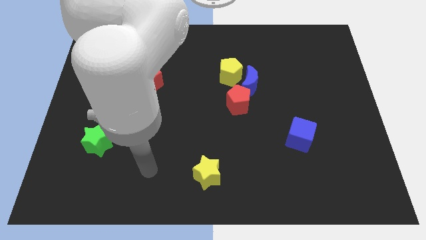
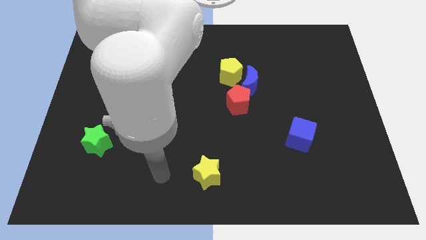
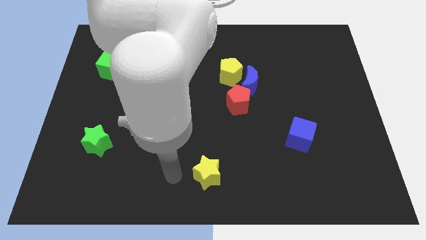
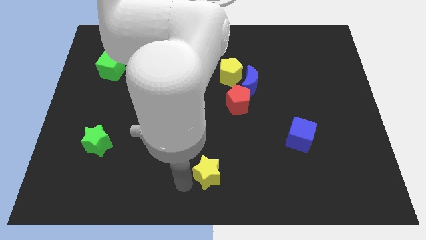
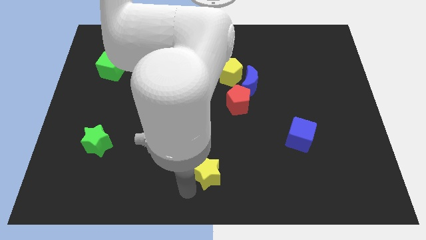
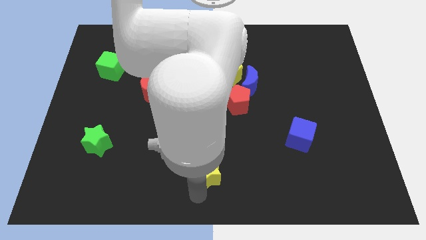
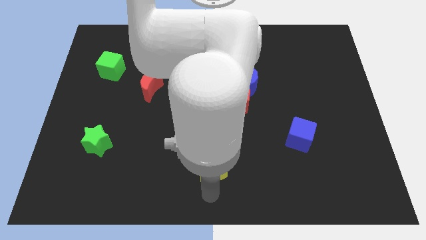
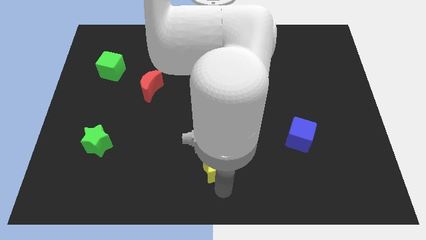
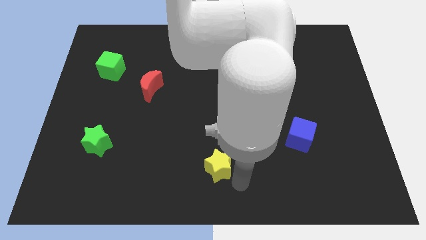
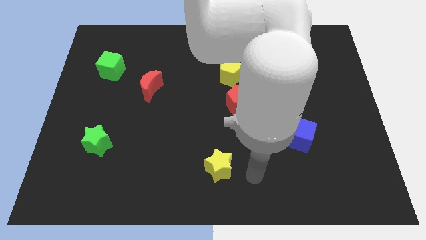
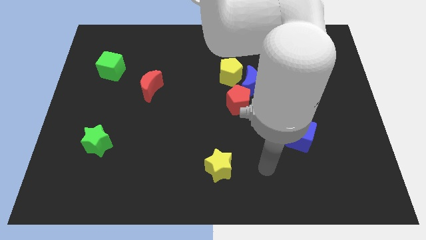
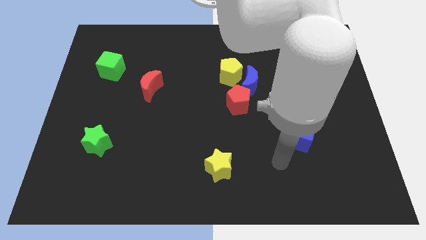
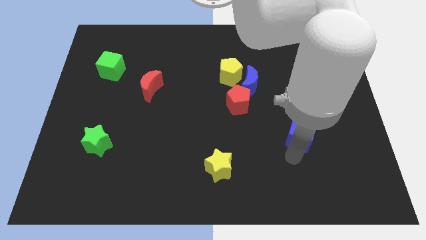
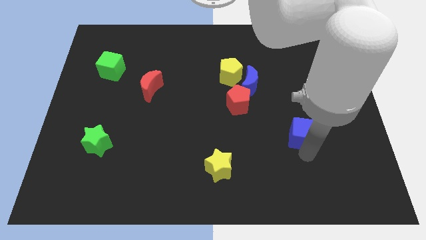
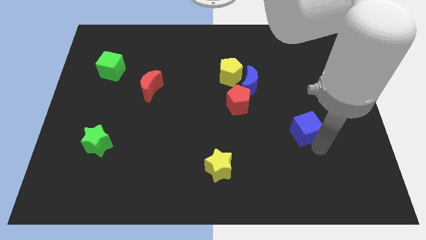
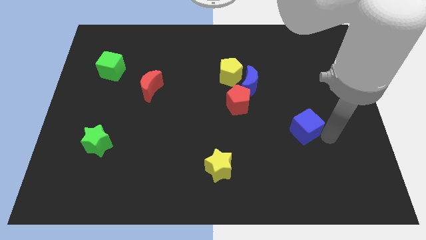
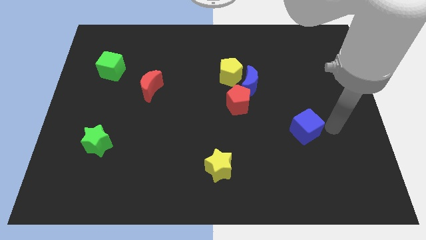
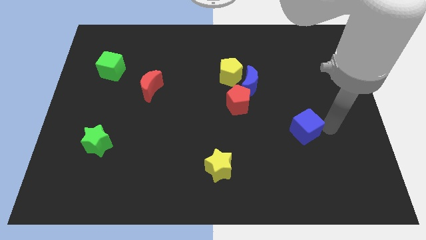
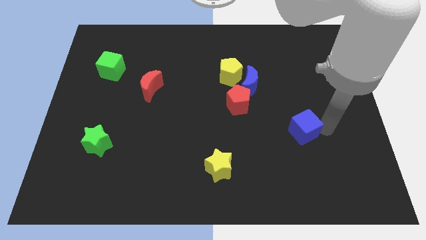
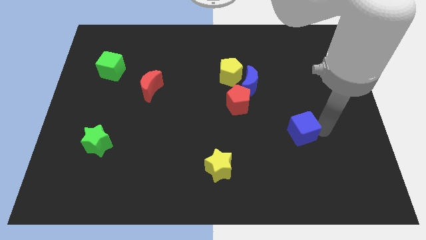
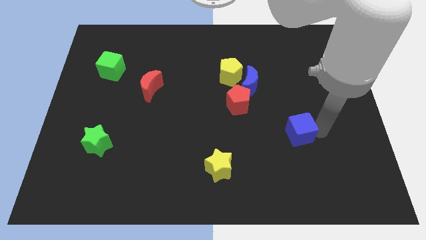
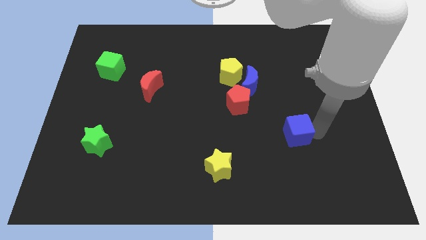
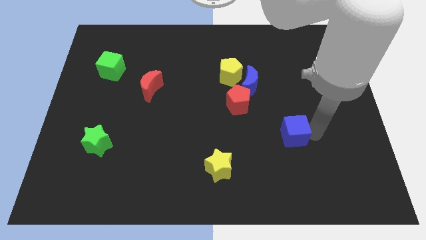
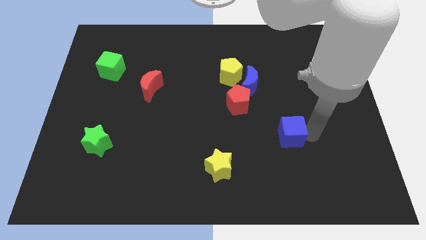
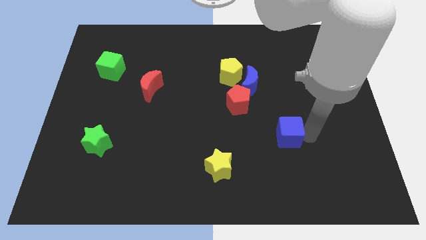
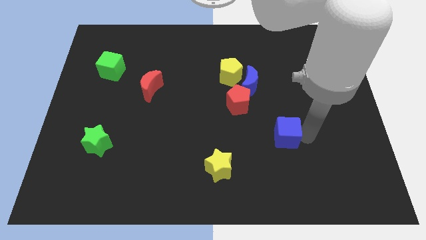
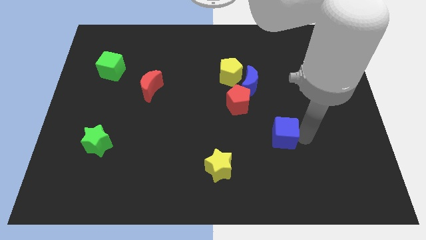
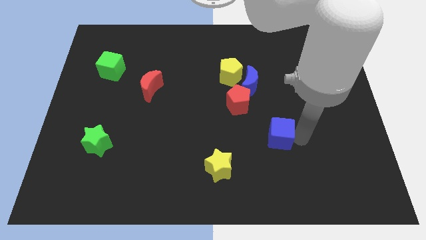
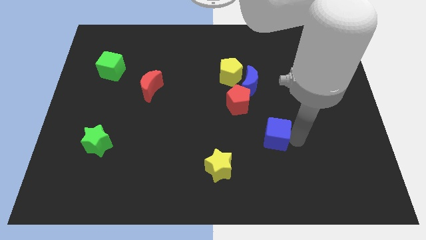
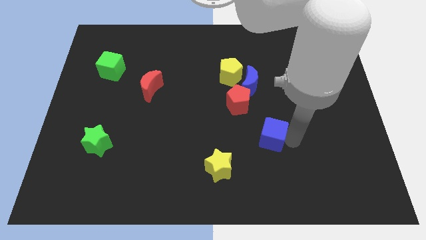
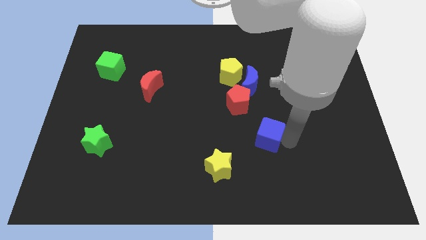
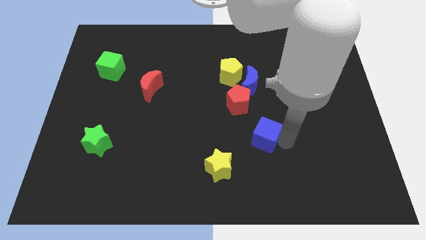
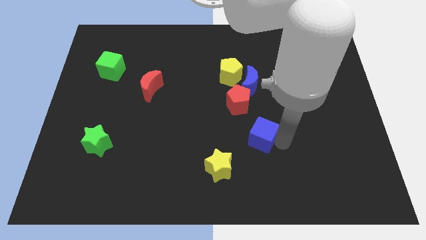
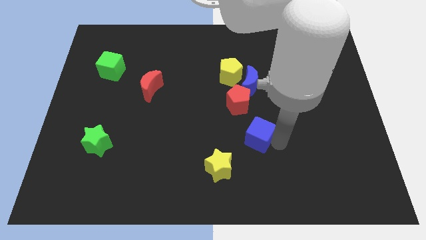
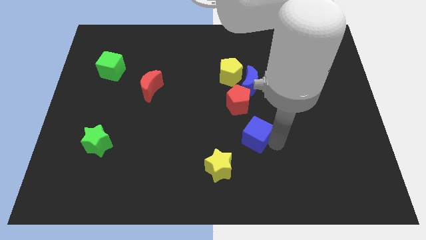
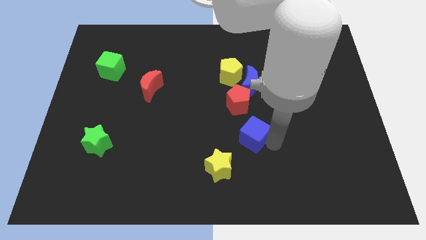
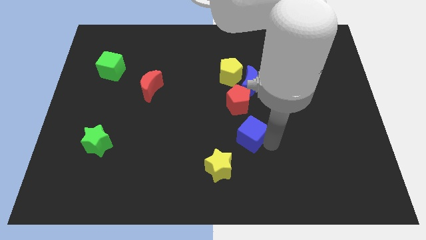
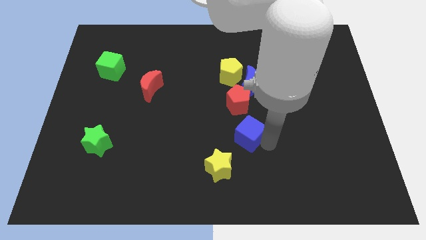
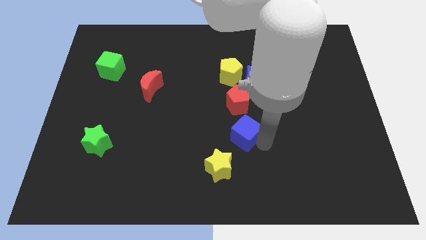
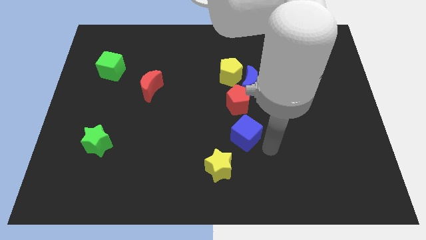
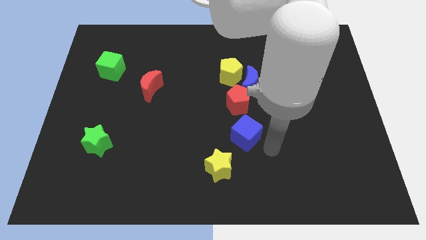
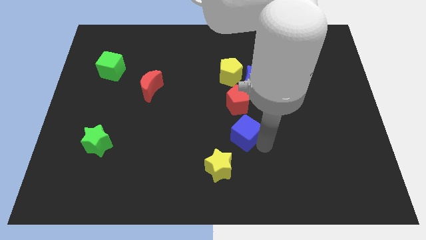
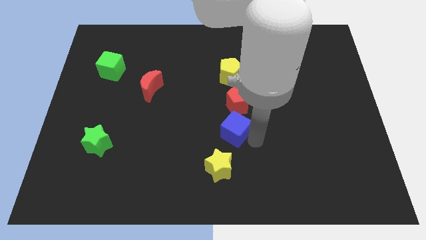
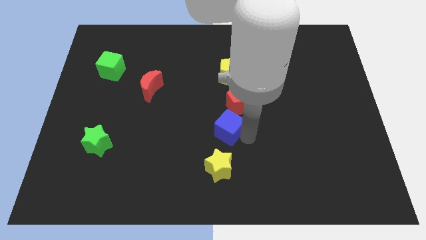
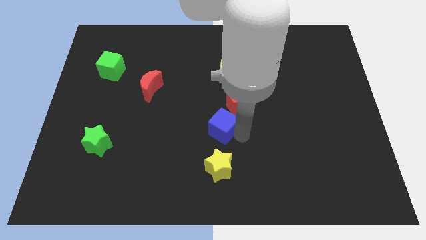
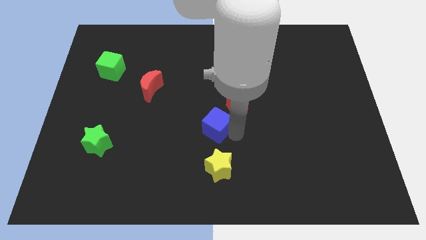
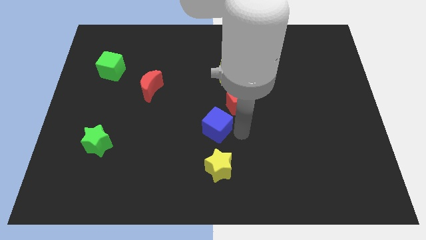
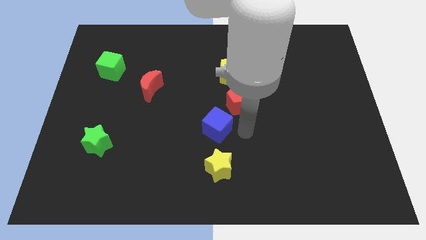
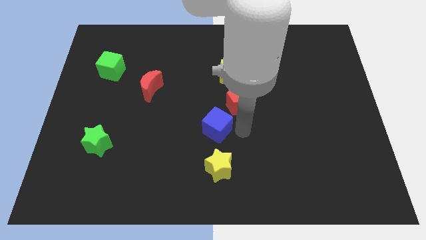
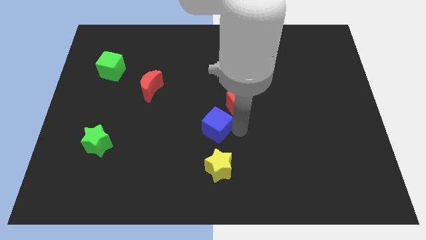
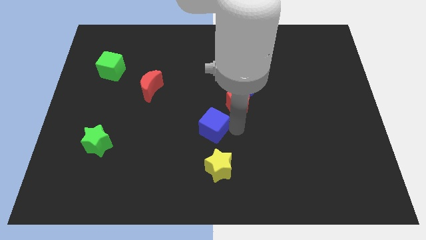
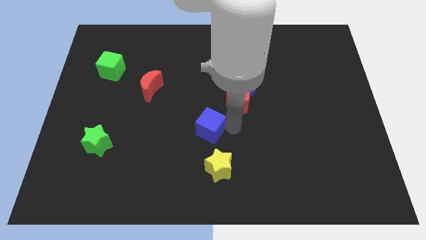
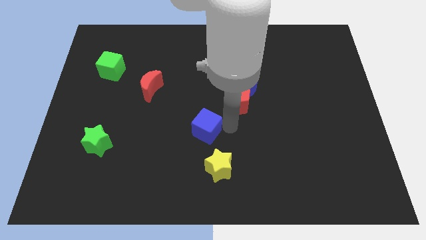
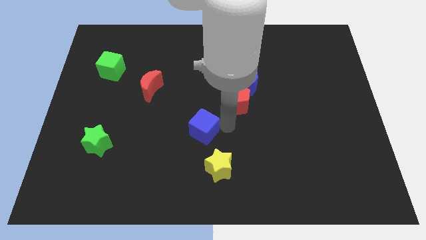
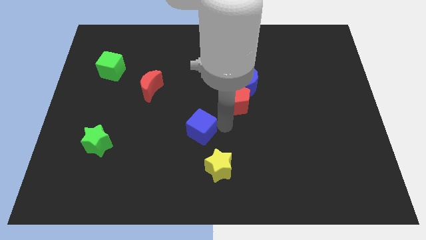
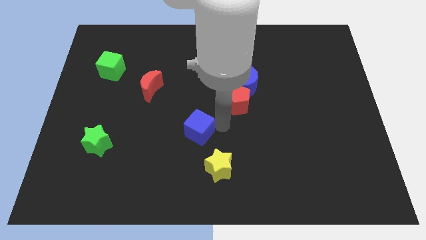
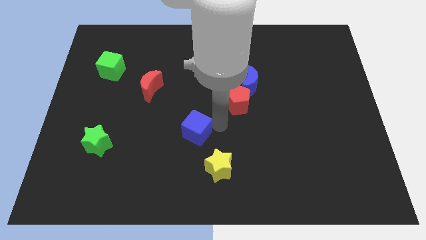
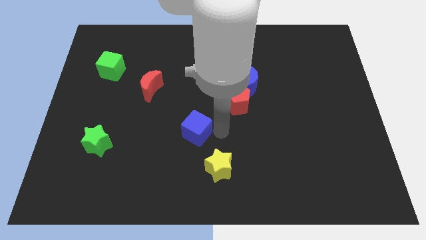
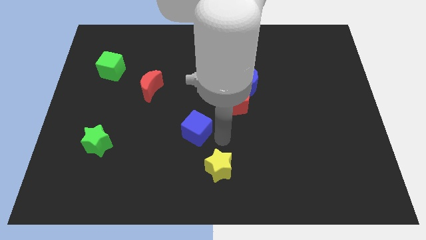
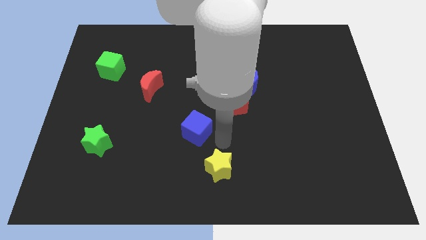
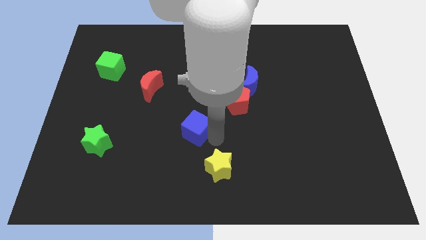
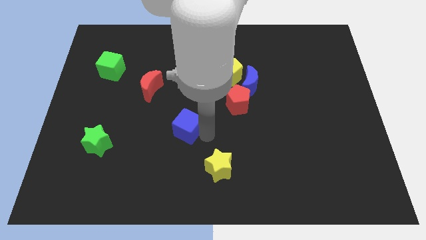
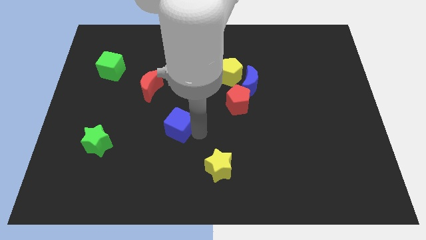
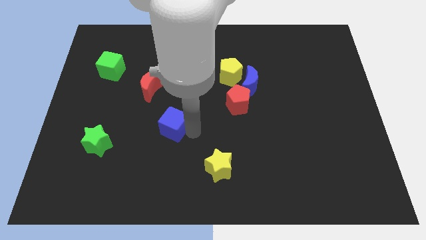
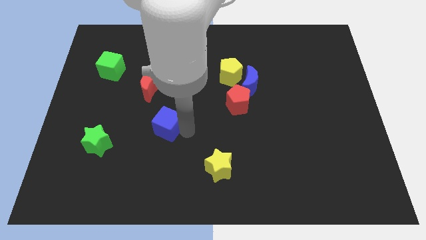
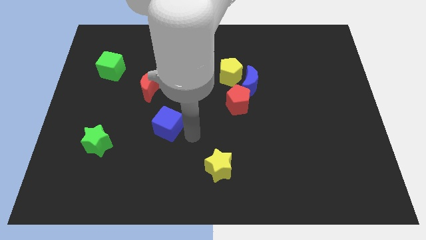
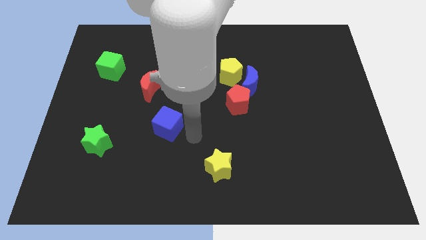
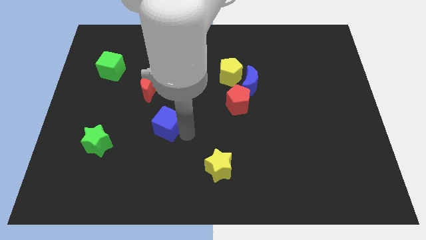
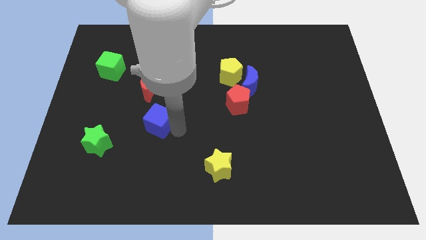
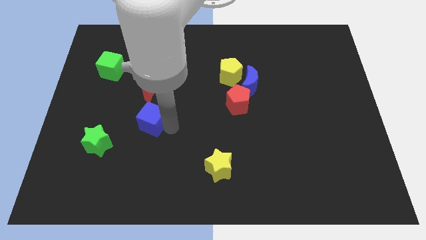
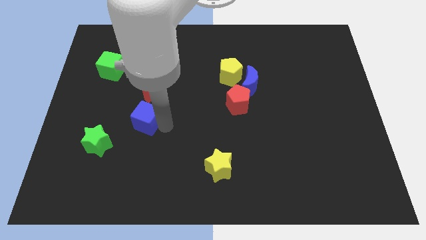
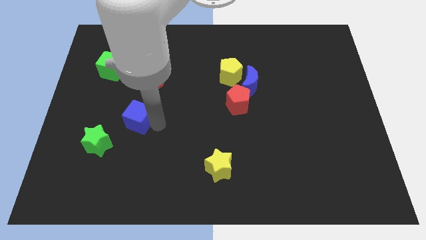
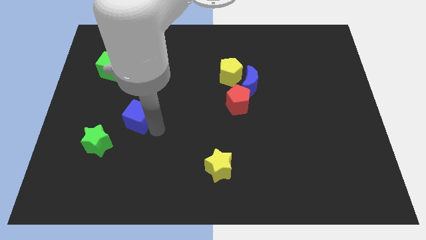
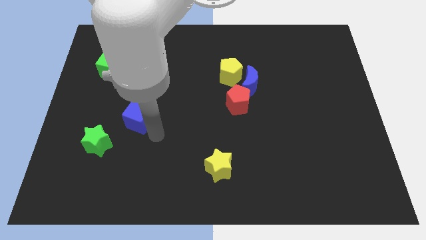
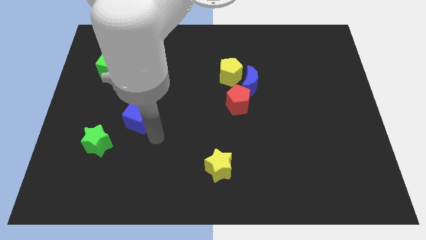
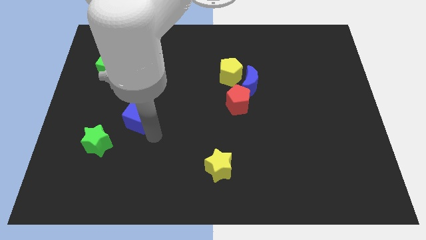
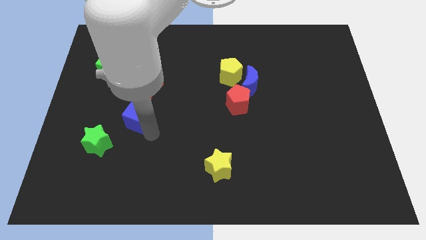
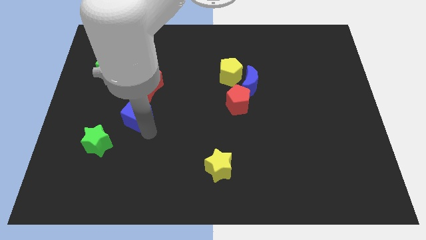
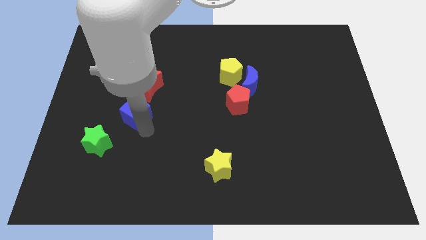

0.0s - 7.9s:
move the blue cube diagonally down and to the left of the red moon

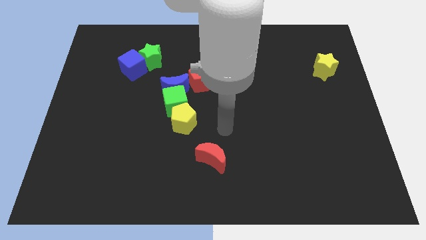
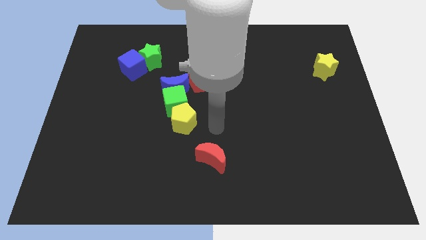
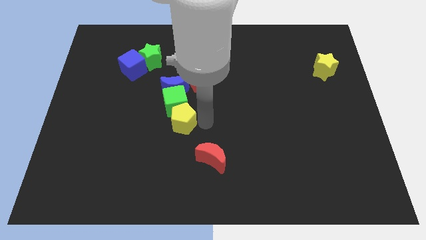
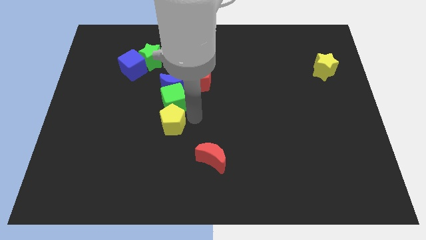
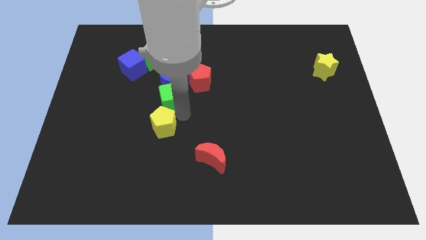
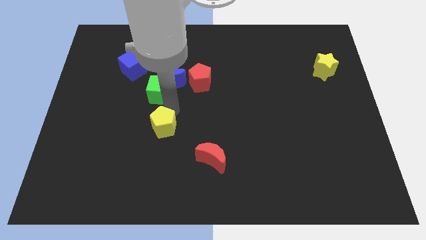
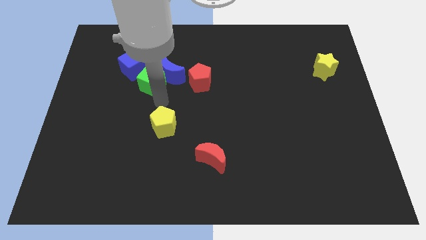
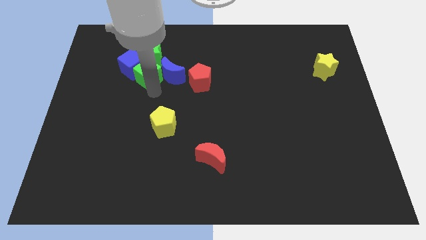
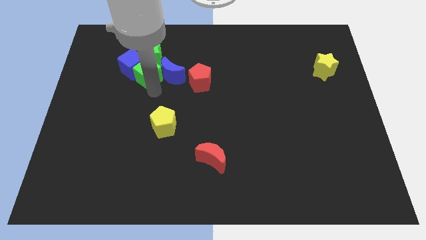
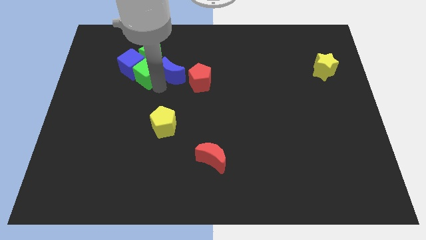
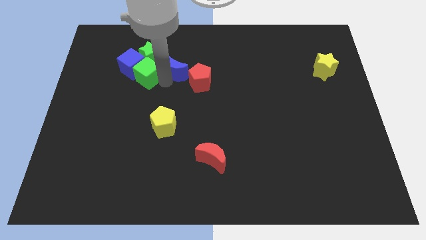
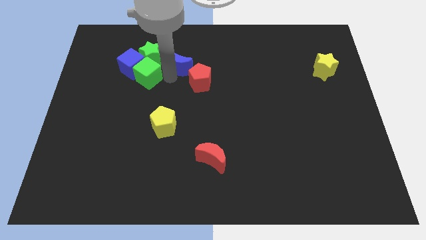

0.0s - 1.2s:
move the blue moon just right of the green star
